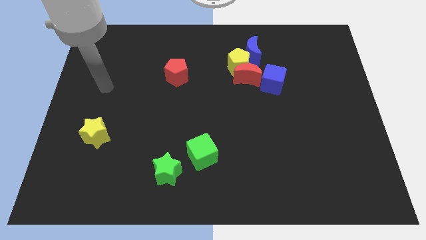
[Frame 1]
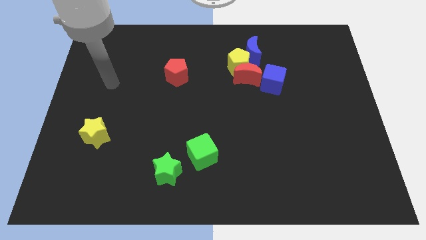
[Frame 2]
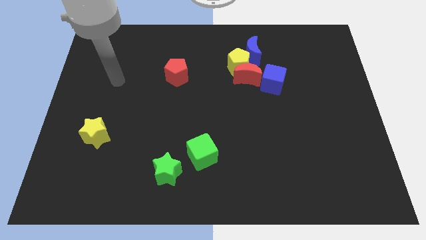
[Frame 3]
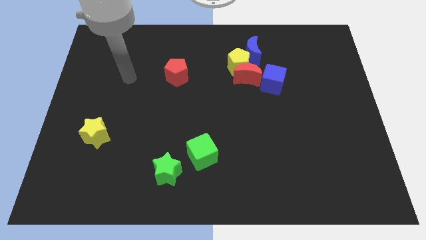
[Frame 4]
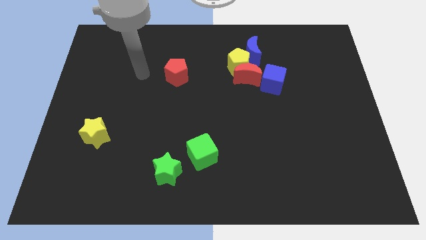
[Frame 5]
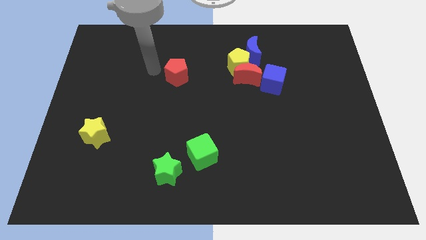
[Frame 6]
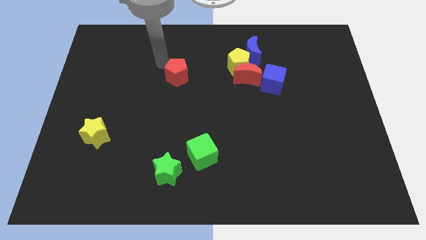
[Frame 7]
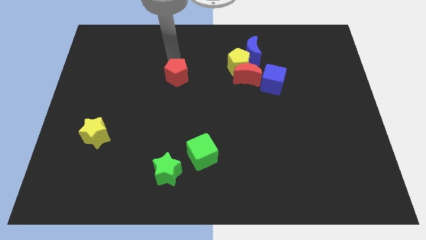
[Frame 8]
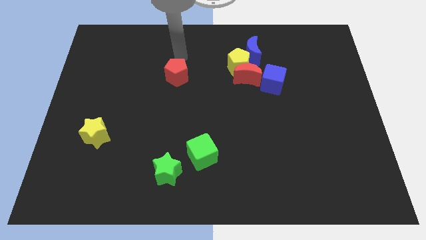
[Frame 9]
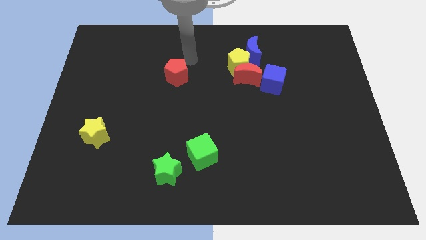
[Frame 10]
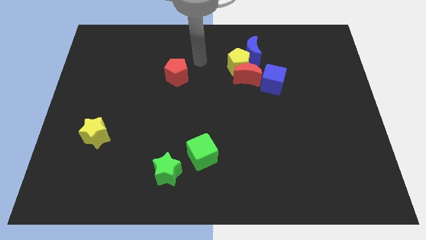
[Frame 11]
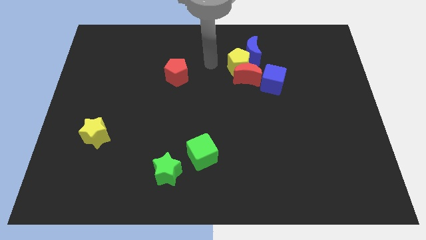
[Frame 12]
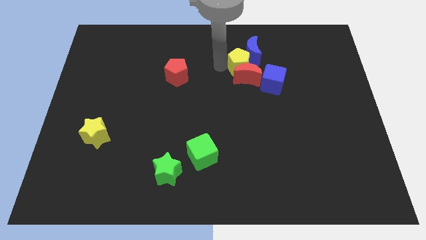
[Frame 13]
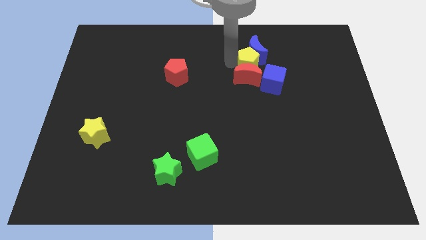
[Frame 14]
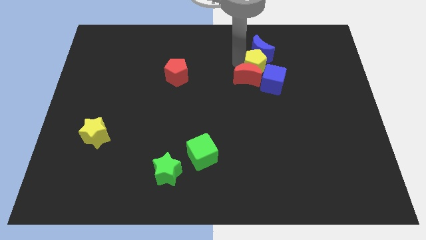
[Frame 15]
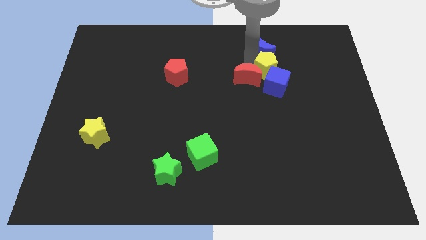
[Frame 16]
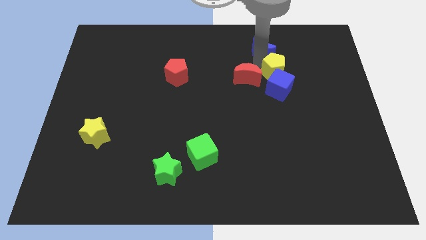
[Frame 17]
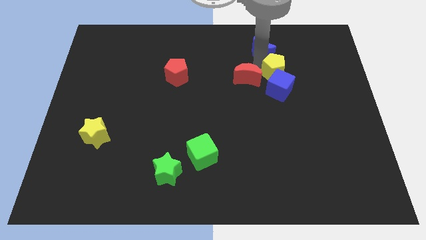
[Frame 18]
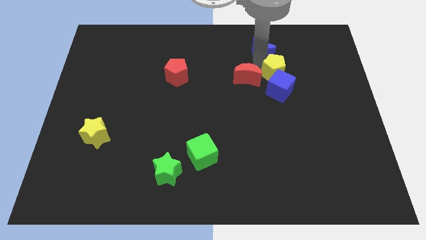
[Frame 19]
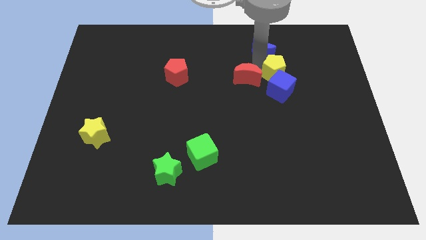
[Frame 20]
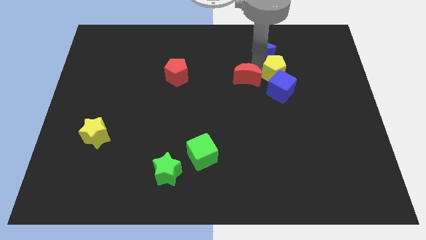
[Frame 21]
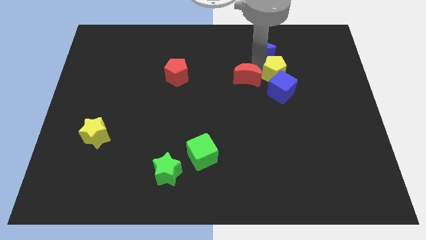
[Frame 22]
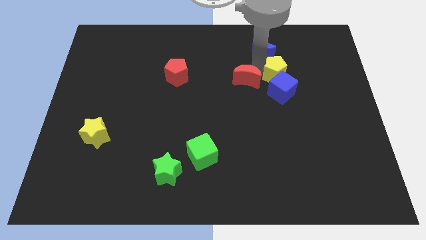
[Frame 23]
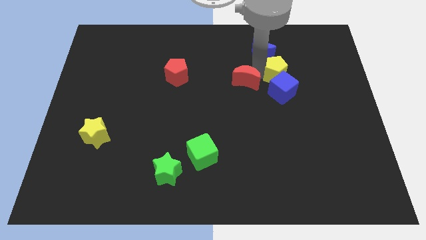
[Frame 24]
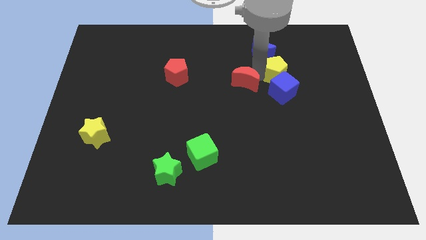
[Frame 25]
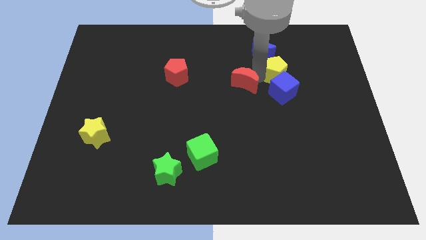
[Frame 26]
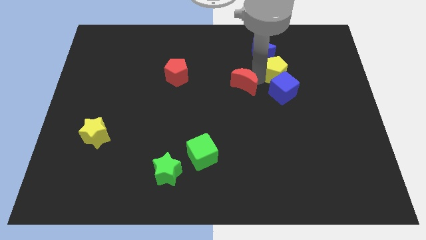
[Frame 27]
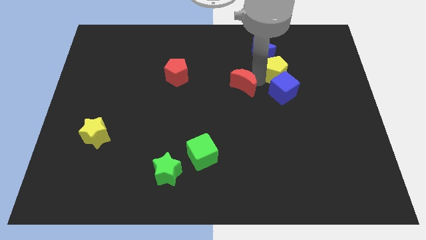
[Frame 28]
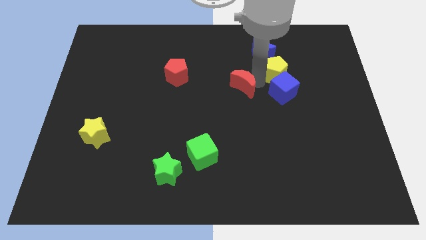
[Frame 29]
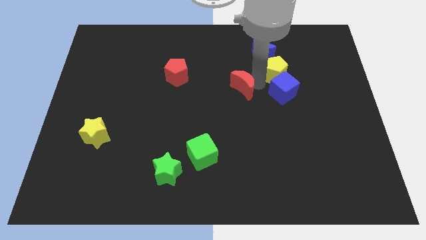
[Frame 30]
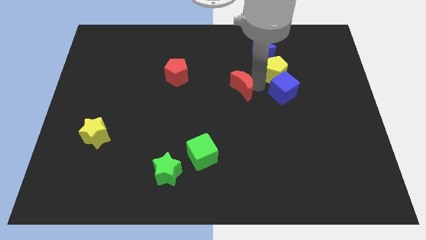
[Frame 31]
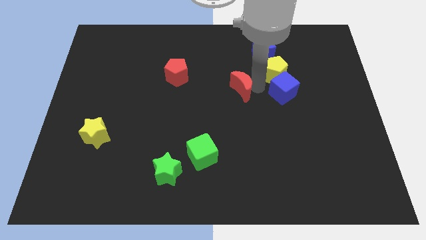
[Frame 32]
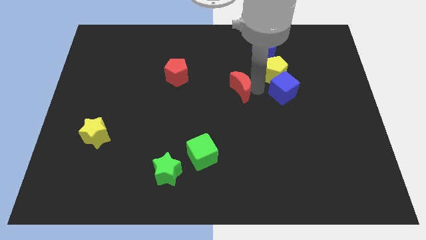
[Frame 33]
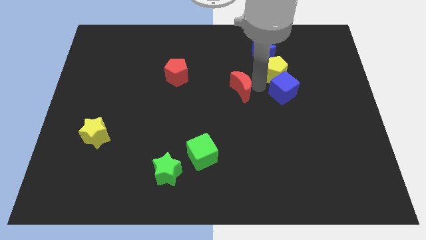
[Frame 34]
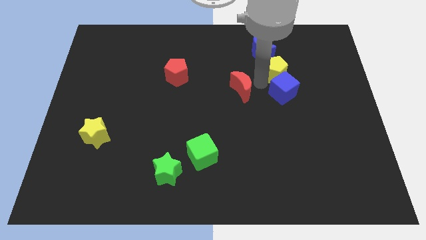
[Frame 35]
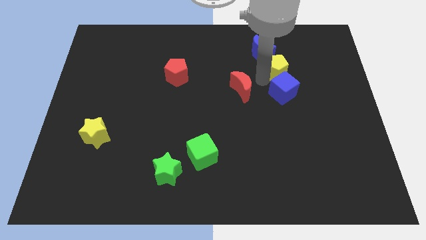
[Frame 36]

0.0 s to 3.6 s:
pull the red moon apart from the yellow pentagon, blue cube, and blue moon

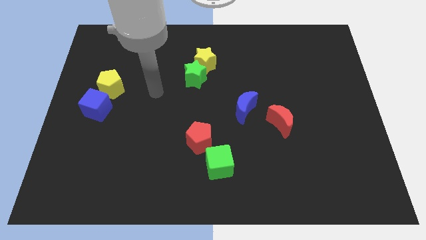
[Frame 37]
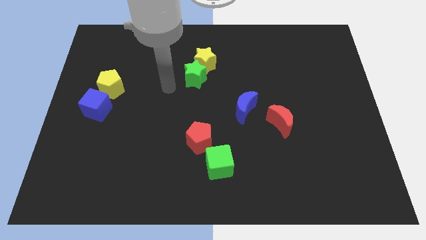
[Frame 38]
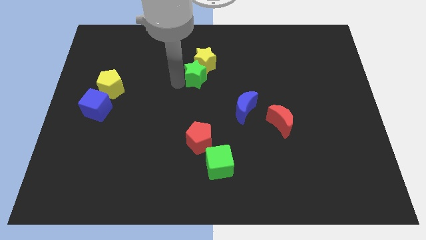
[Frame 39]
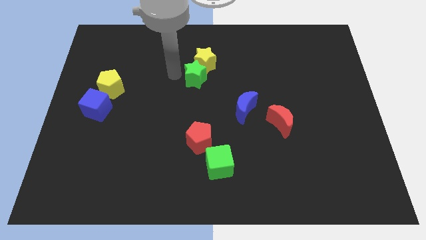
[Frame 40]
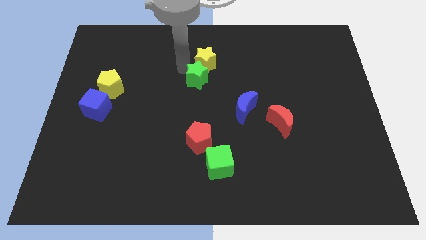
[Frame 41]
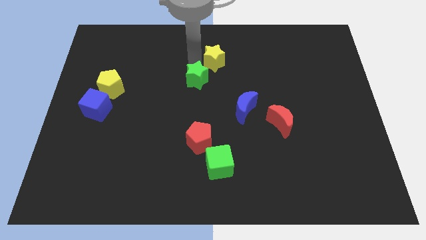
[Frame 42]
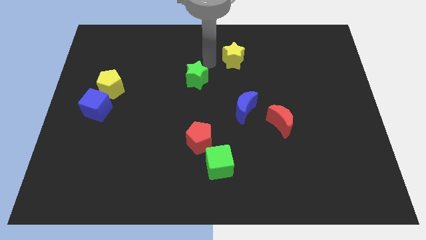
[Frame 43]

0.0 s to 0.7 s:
pull the green star apart from the yellow star

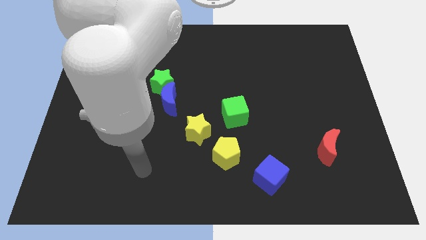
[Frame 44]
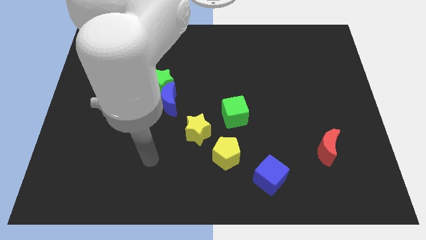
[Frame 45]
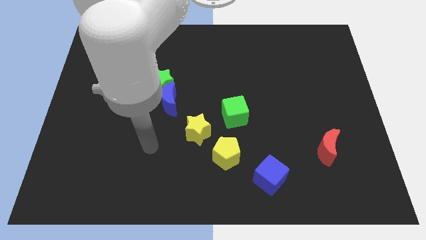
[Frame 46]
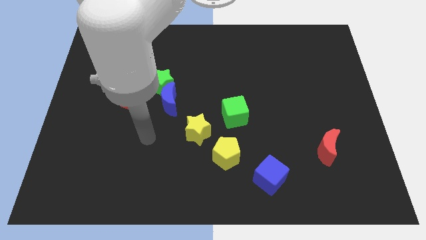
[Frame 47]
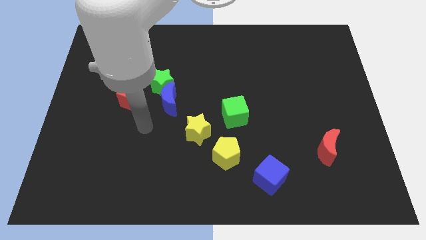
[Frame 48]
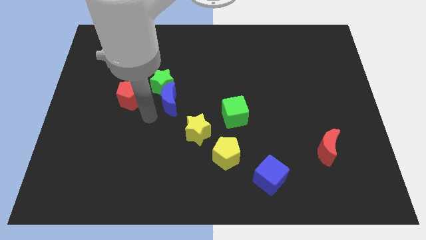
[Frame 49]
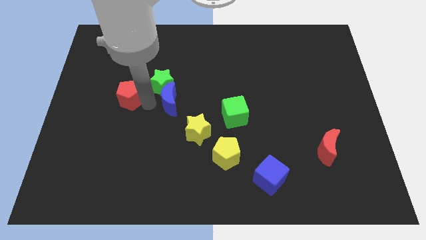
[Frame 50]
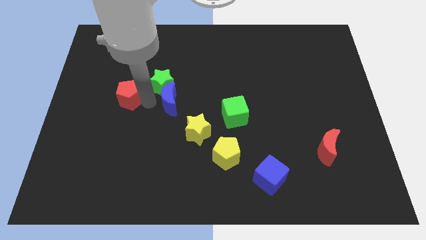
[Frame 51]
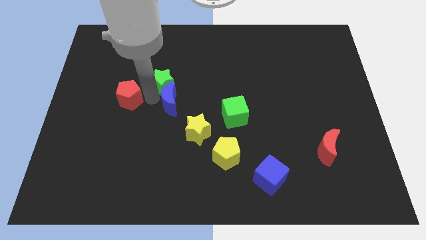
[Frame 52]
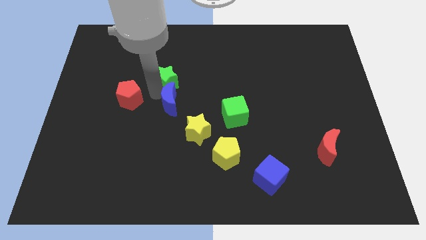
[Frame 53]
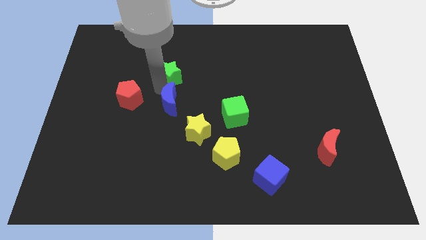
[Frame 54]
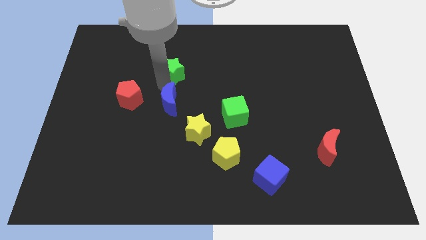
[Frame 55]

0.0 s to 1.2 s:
separate the green star from the blue moon and red pentagon

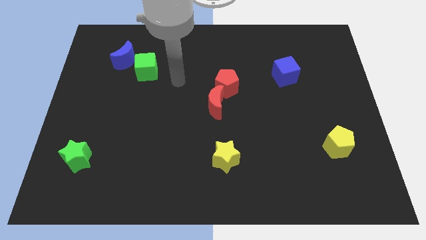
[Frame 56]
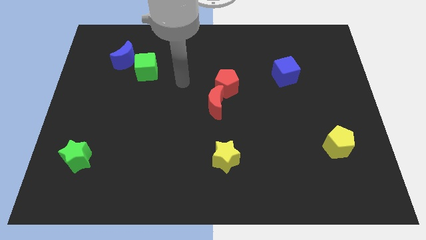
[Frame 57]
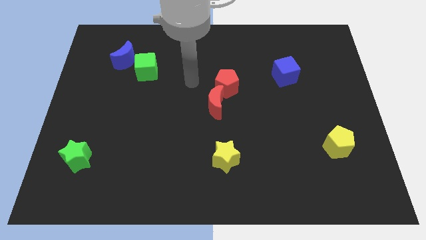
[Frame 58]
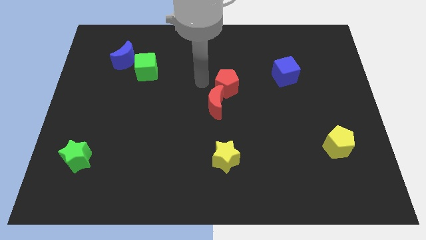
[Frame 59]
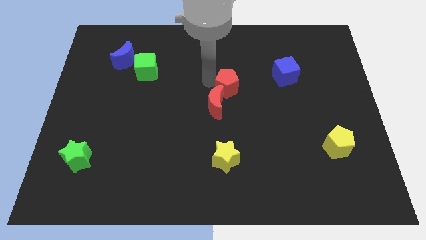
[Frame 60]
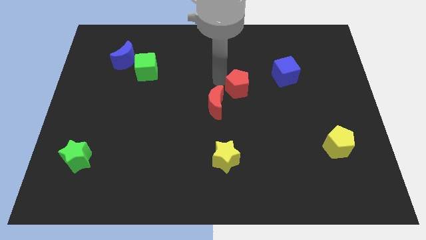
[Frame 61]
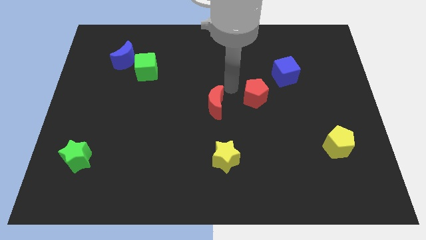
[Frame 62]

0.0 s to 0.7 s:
move the red moon away from the red pentagon

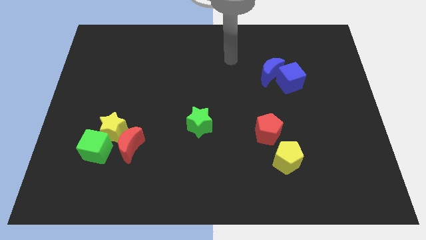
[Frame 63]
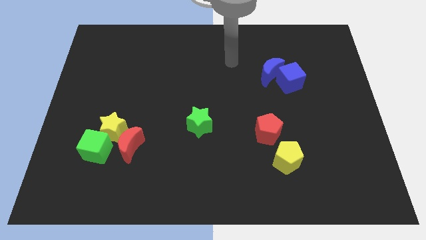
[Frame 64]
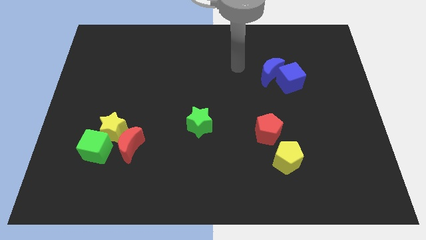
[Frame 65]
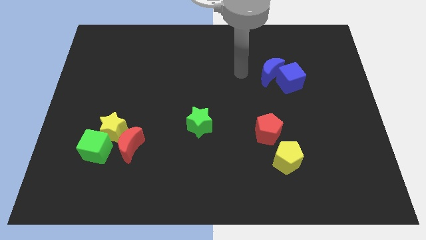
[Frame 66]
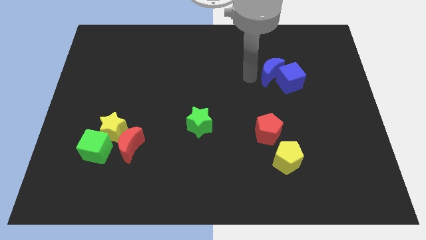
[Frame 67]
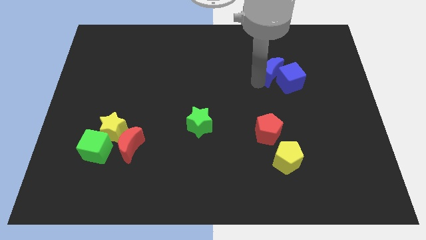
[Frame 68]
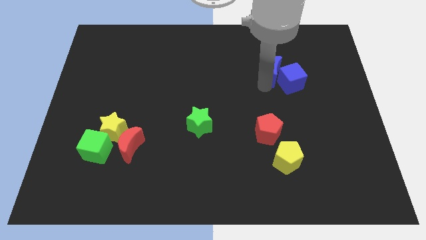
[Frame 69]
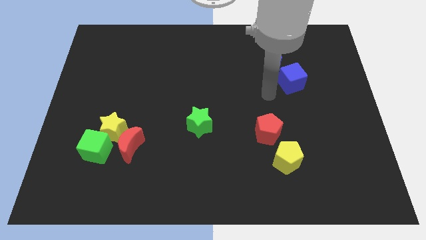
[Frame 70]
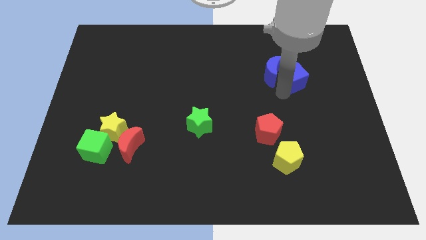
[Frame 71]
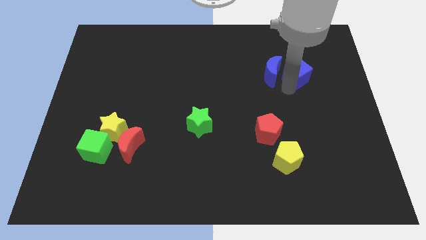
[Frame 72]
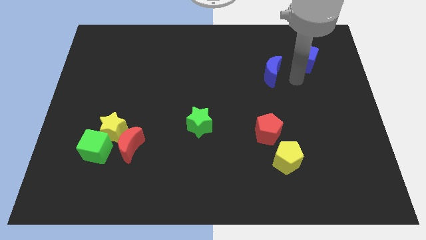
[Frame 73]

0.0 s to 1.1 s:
pull the blue moon apart from the blue cube

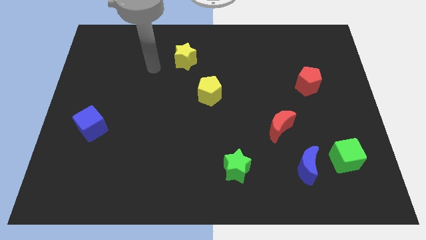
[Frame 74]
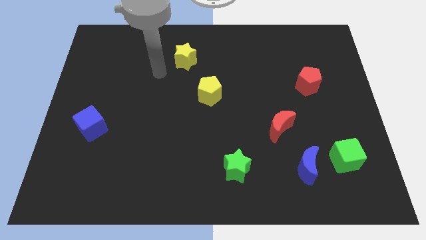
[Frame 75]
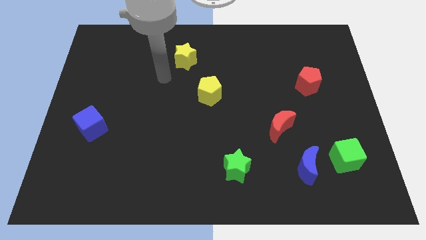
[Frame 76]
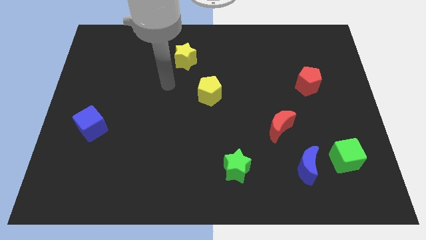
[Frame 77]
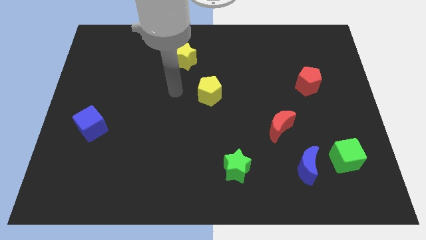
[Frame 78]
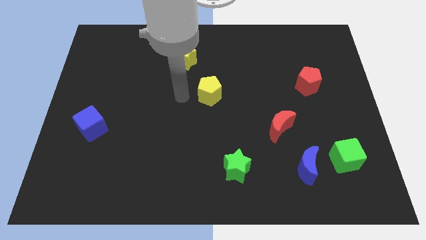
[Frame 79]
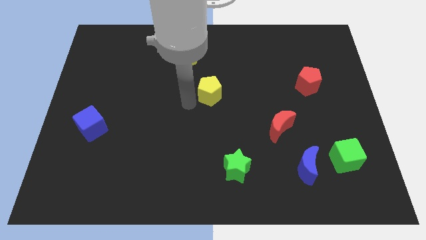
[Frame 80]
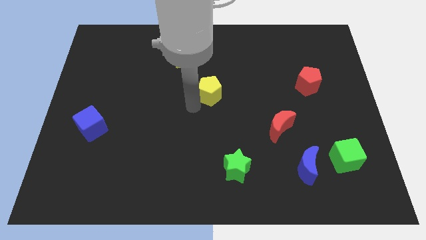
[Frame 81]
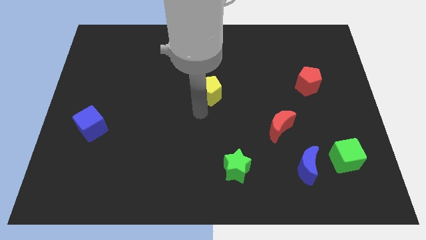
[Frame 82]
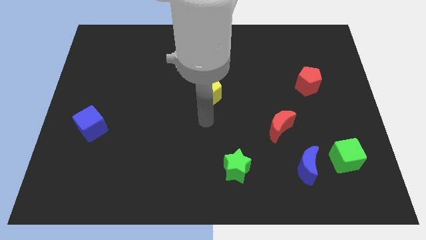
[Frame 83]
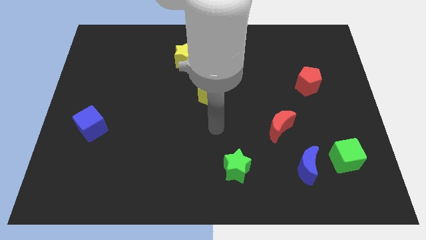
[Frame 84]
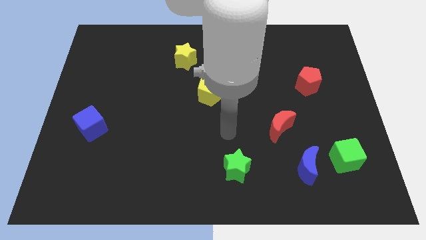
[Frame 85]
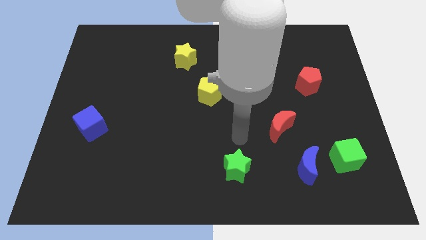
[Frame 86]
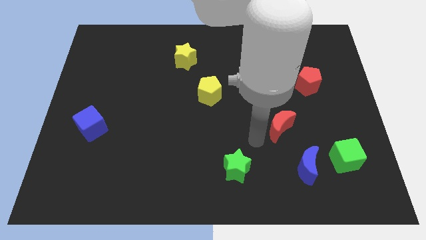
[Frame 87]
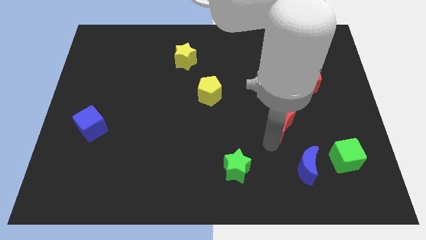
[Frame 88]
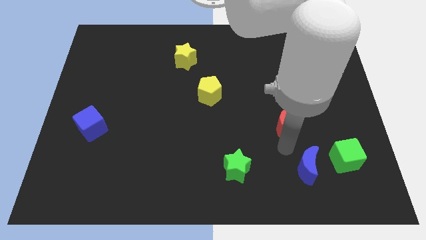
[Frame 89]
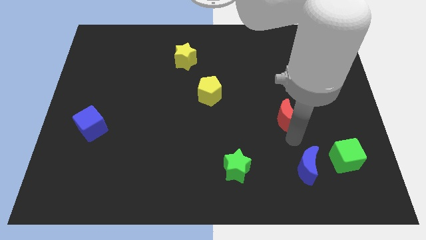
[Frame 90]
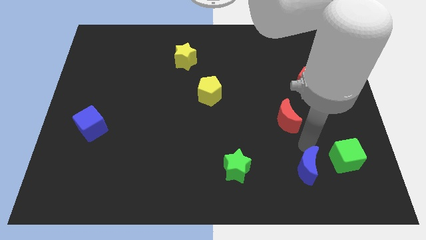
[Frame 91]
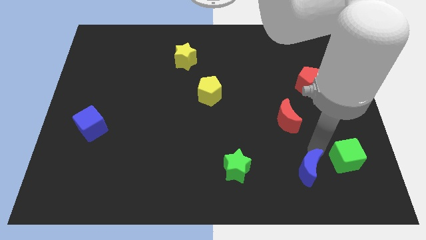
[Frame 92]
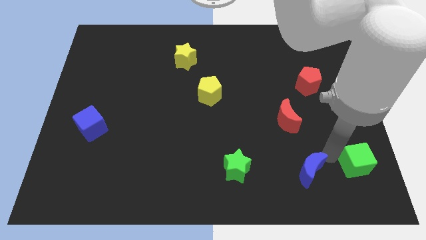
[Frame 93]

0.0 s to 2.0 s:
move the blue moon away from the green cube
